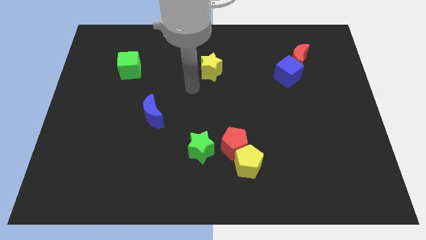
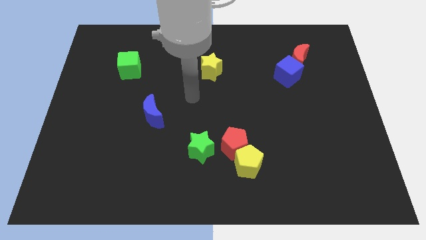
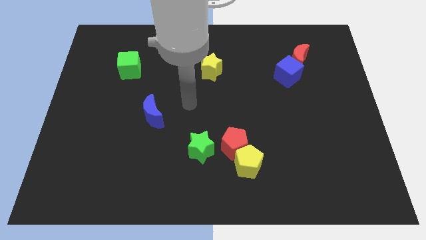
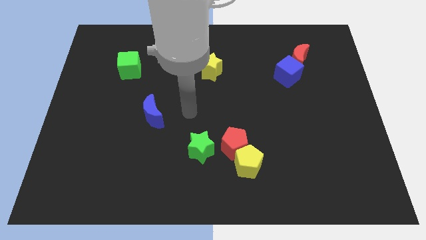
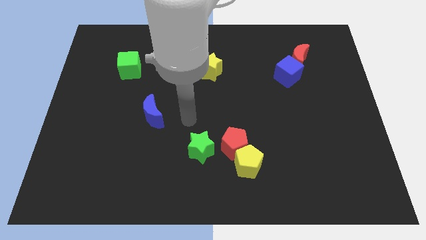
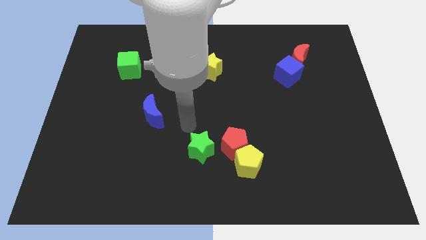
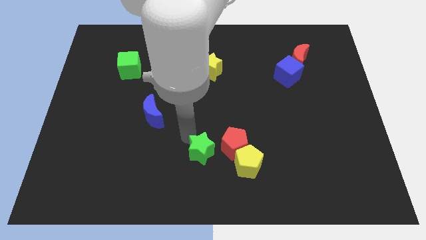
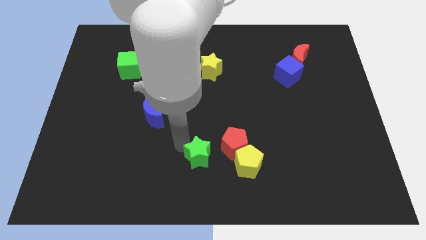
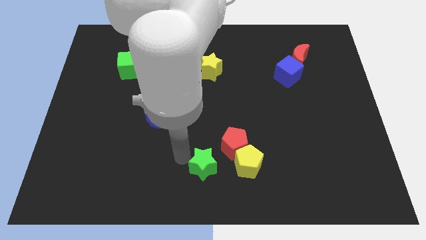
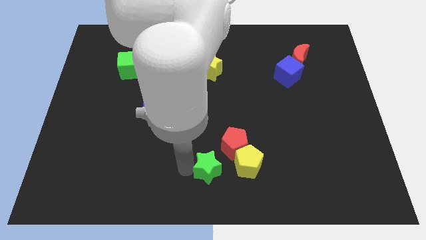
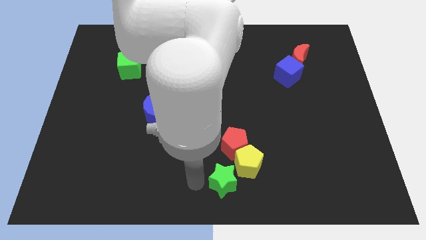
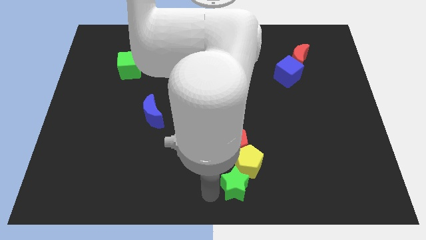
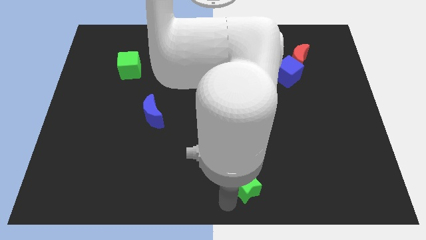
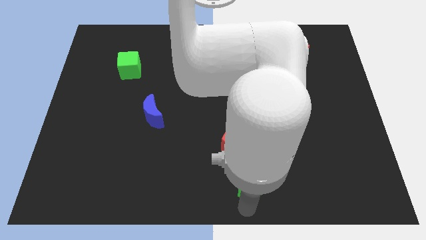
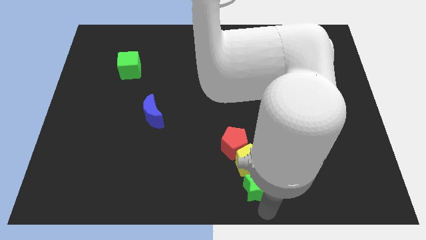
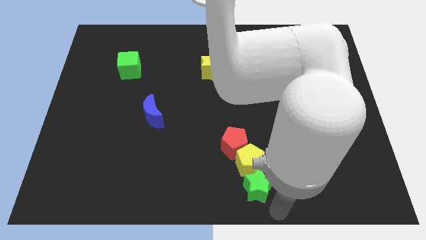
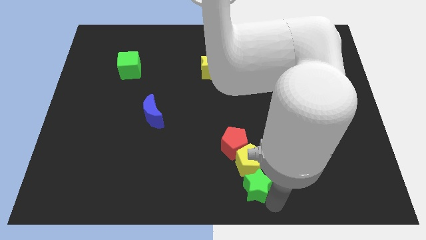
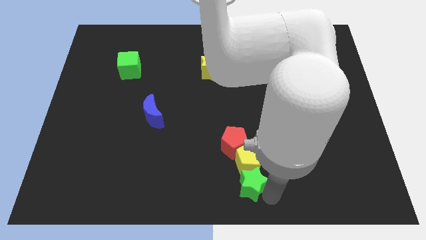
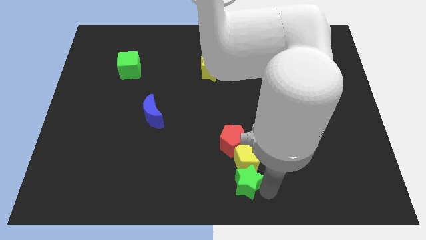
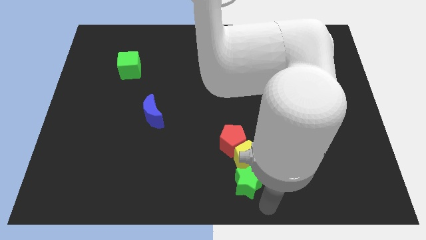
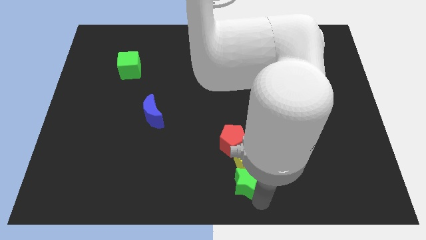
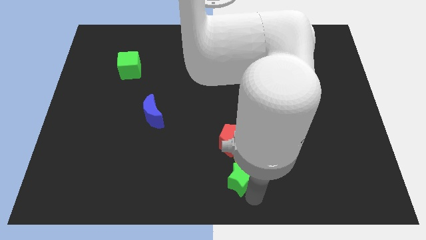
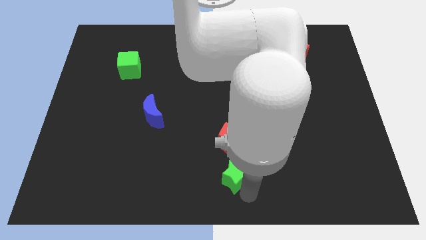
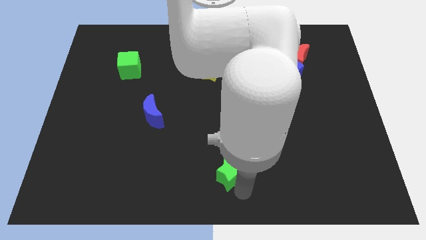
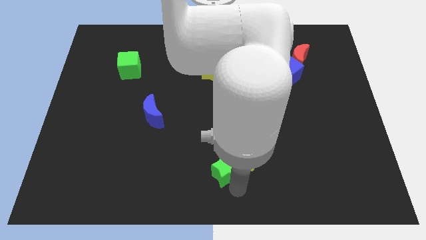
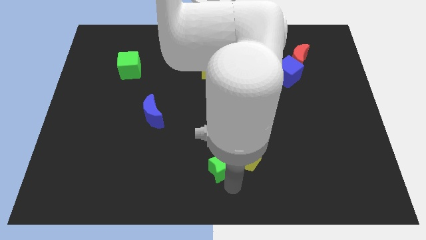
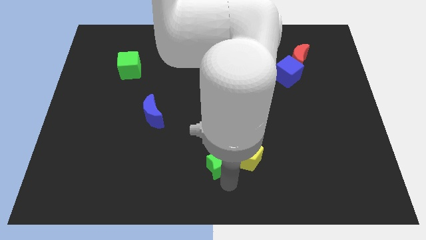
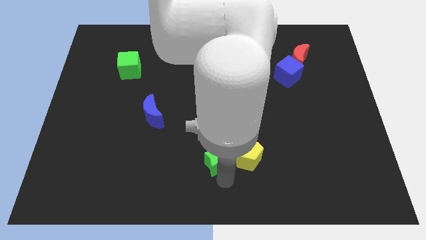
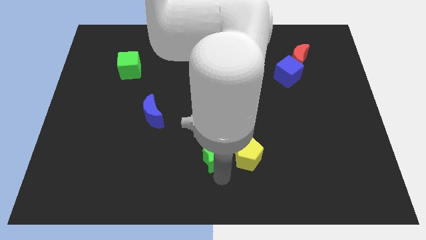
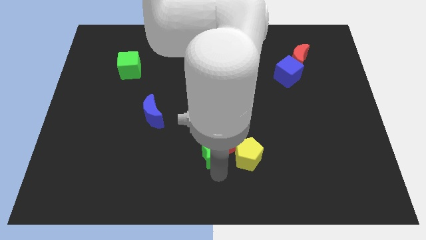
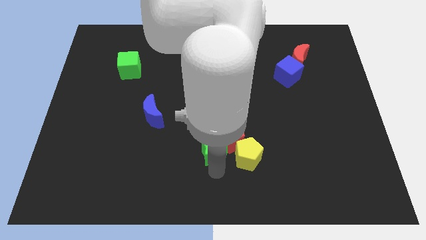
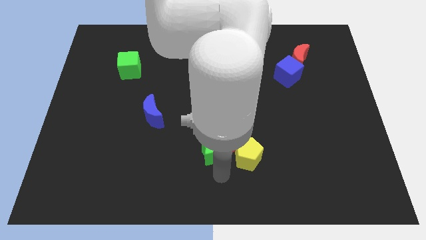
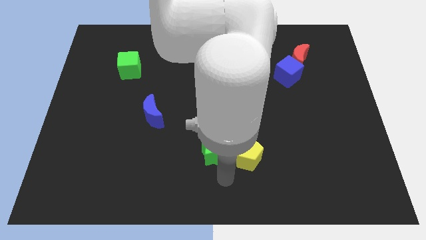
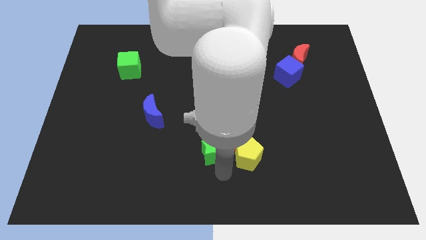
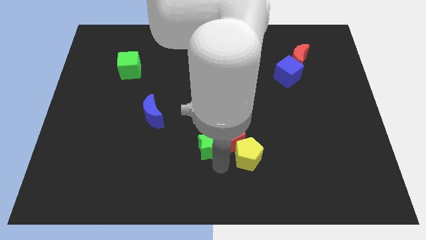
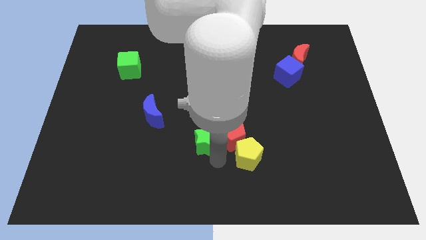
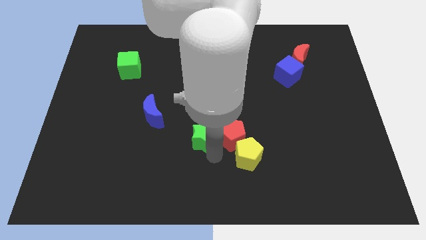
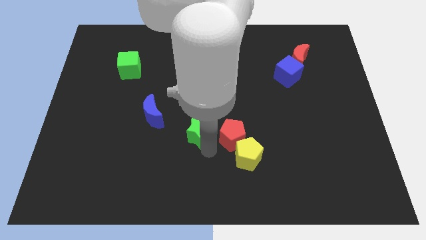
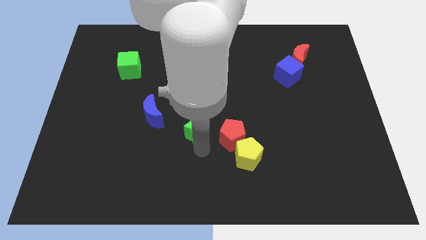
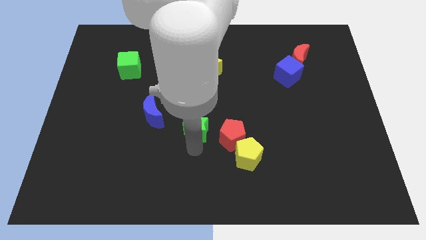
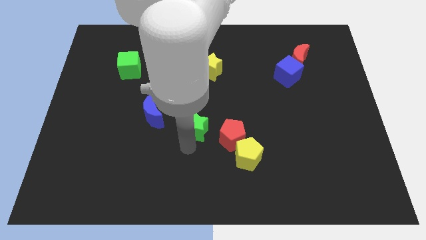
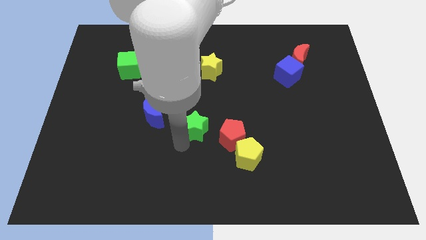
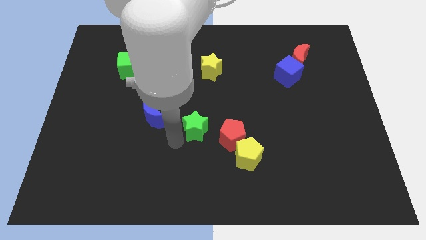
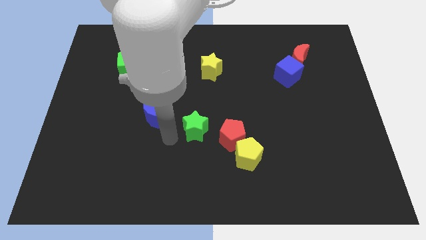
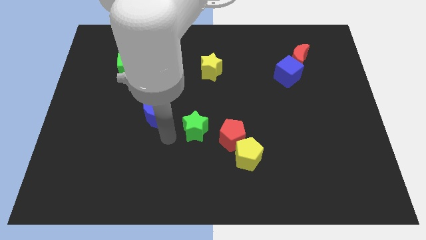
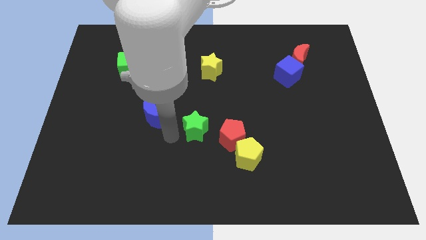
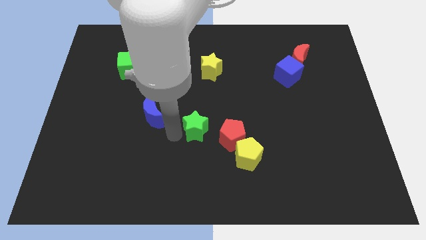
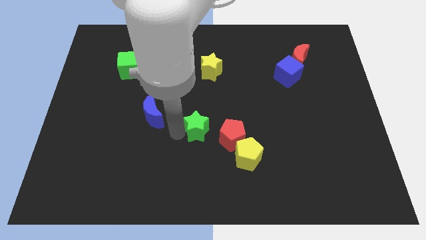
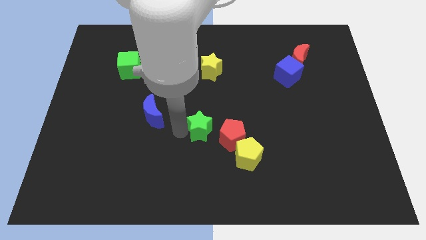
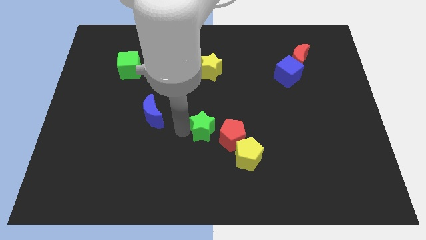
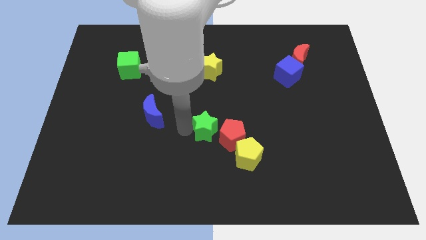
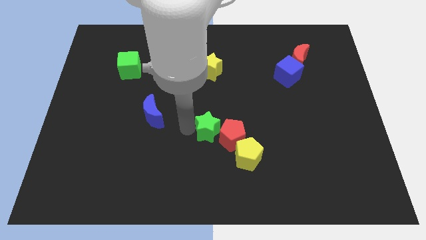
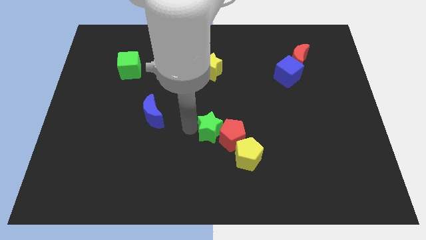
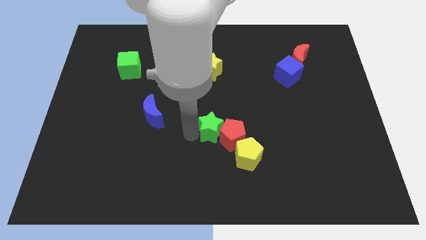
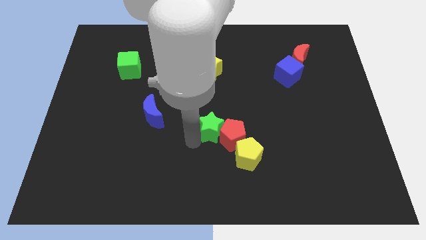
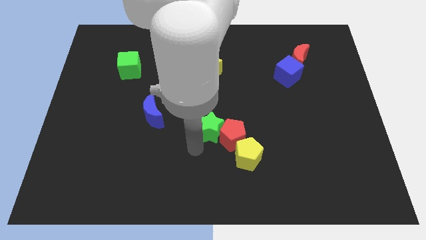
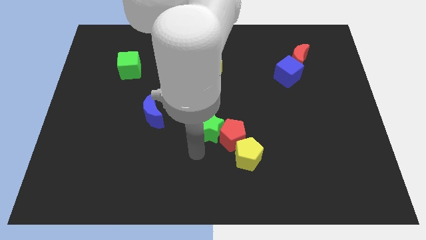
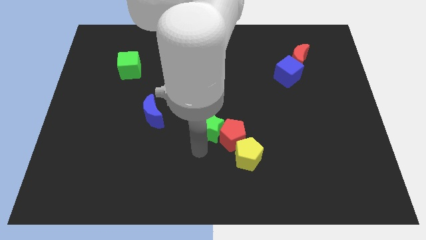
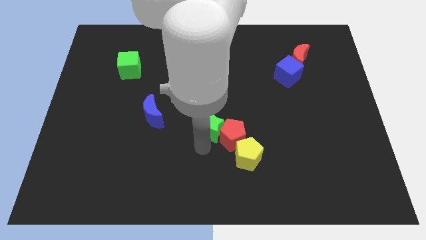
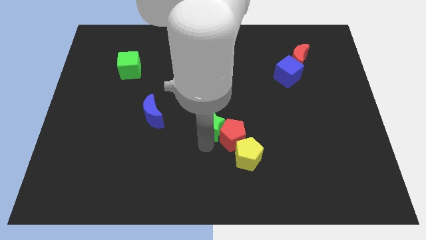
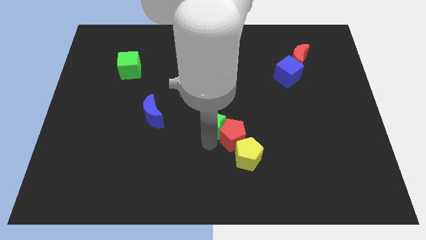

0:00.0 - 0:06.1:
push the green star above the red pentagon

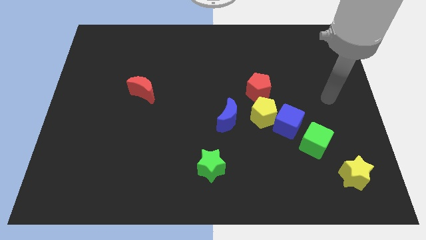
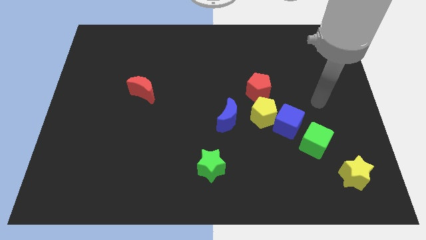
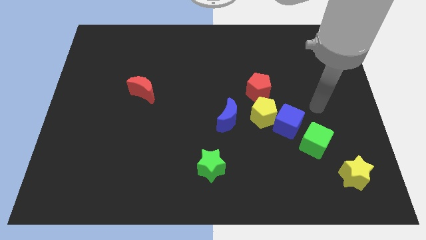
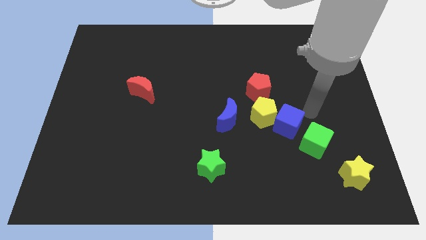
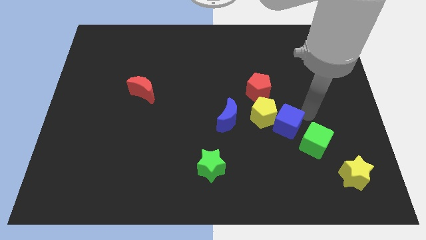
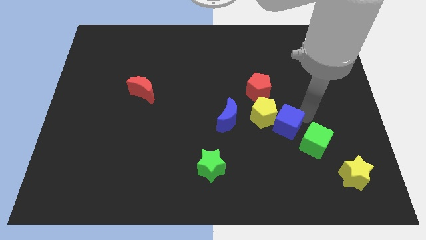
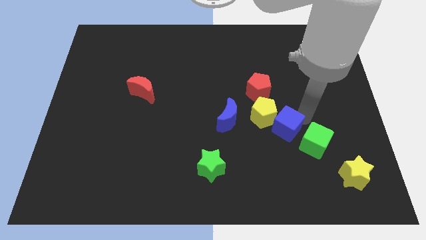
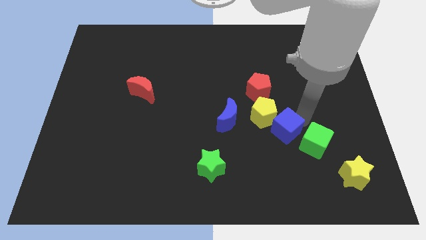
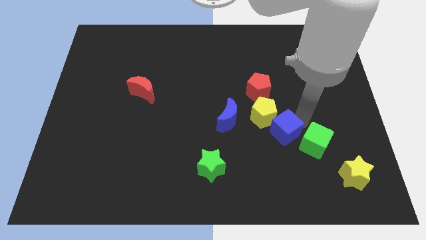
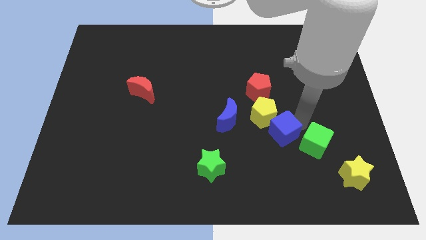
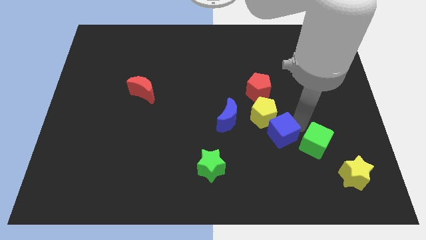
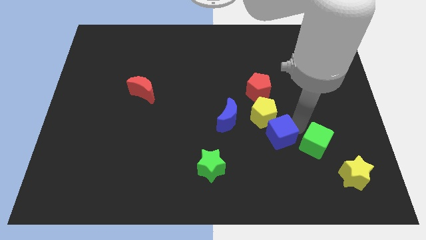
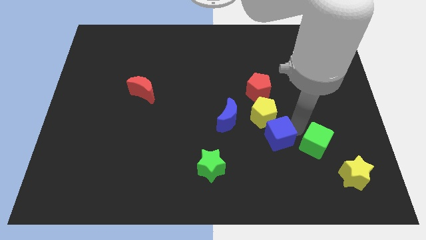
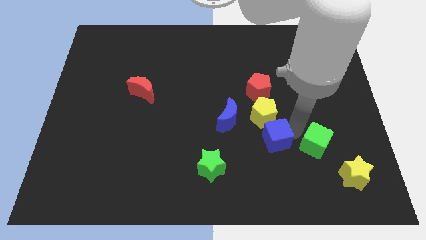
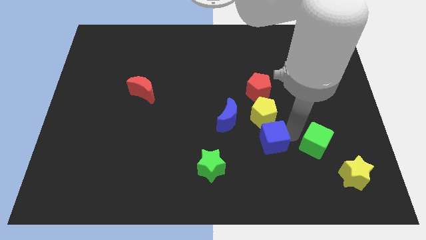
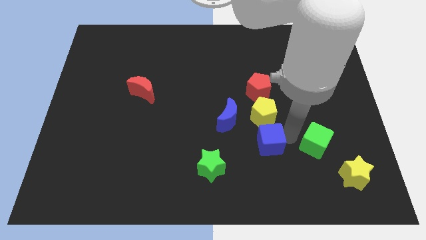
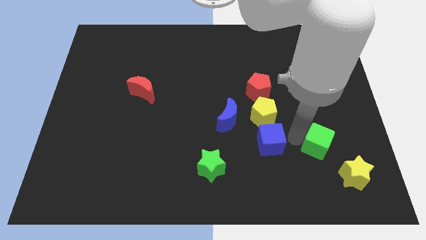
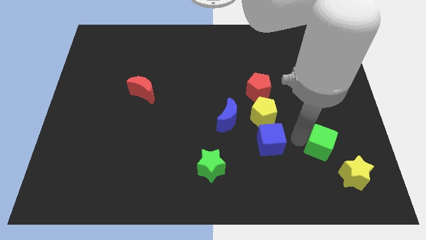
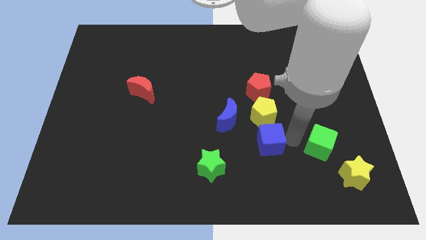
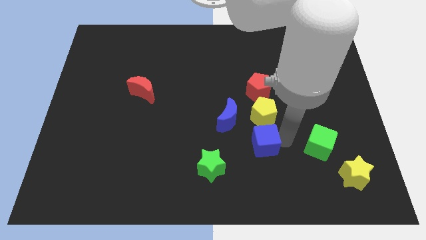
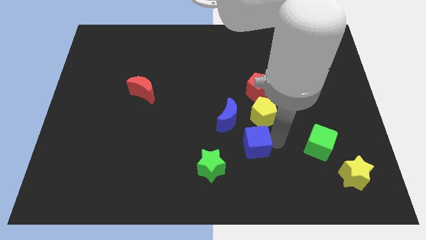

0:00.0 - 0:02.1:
push the blue cube to the top right side of the green star
